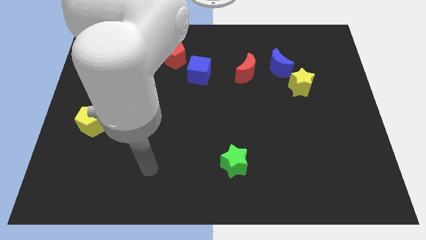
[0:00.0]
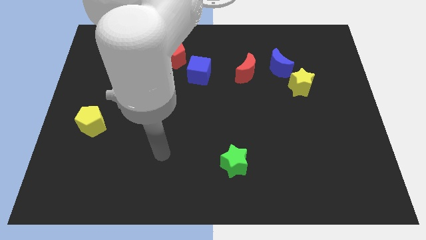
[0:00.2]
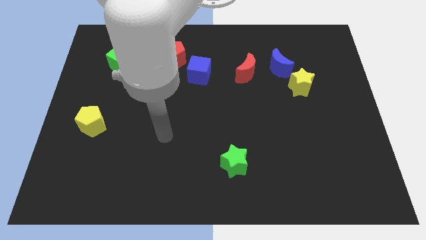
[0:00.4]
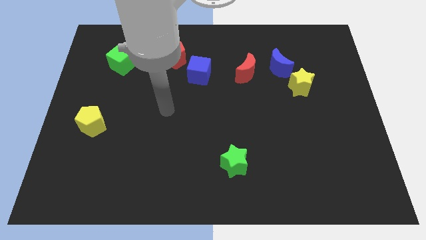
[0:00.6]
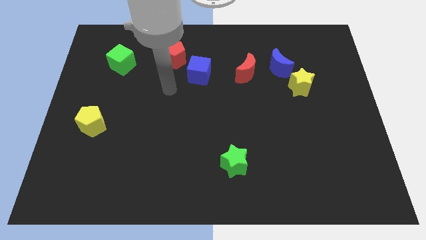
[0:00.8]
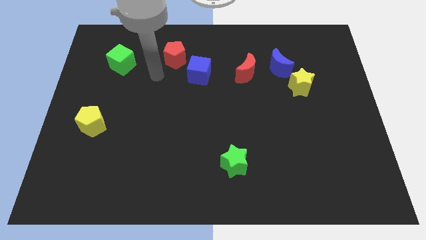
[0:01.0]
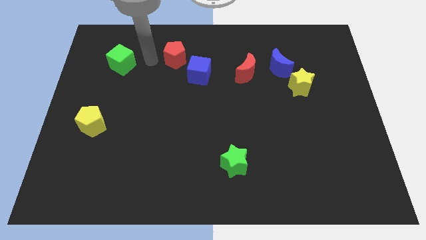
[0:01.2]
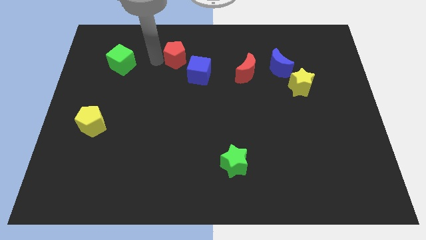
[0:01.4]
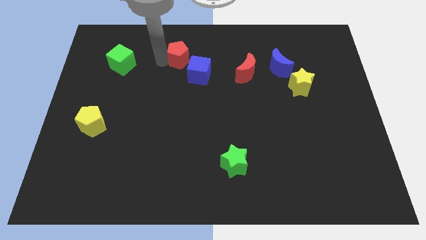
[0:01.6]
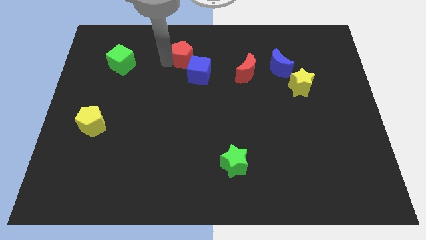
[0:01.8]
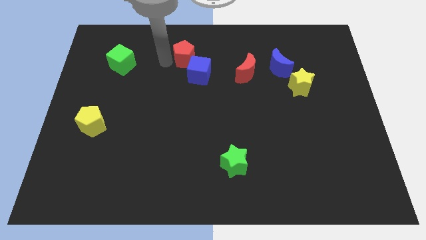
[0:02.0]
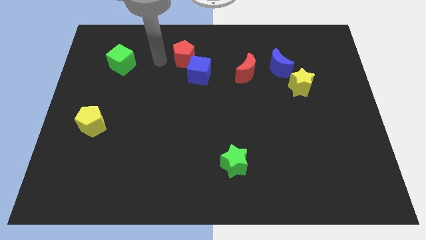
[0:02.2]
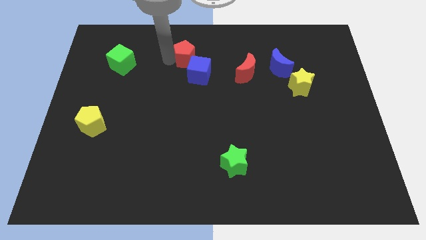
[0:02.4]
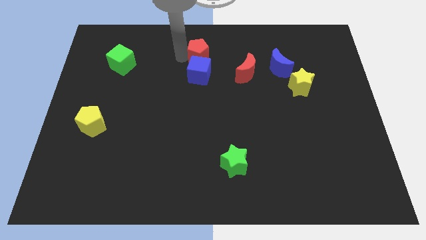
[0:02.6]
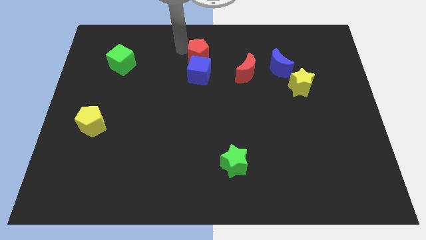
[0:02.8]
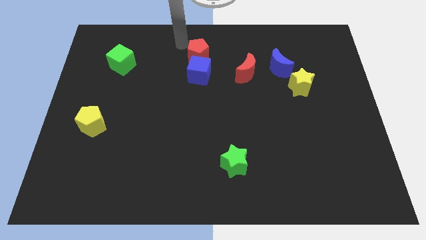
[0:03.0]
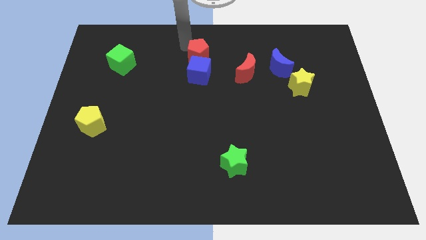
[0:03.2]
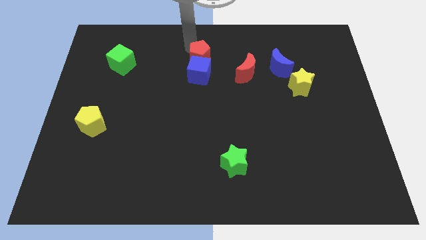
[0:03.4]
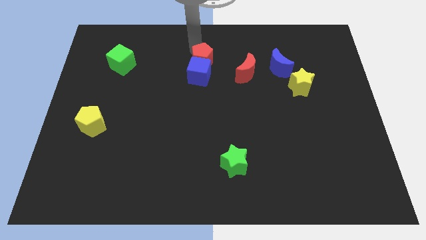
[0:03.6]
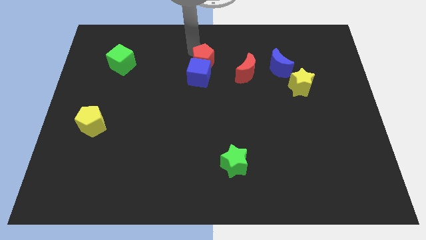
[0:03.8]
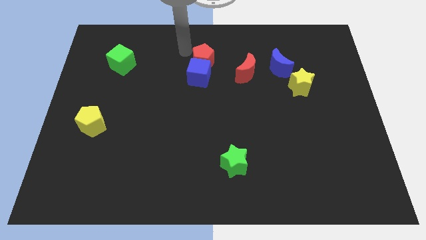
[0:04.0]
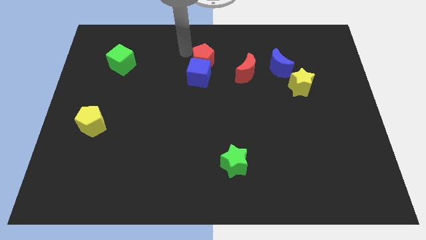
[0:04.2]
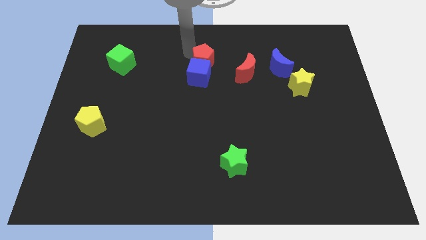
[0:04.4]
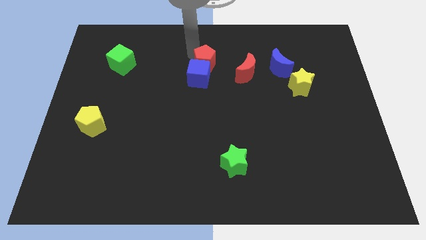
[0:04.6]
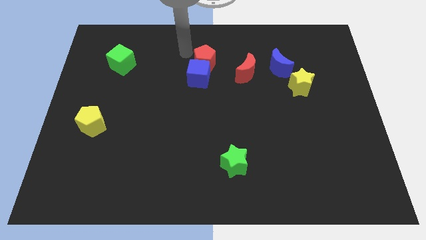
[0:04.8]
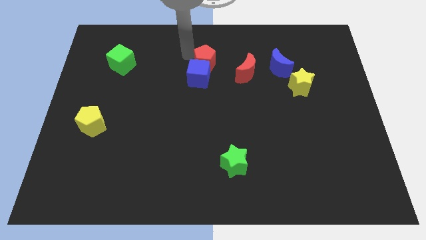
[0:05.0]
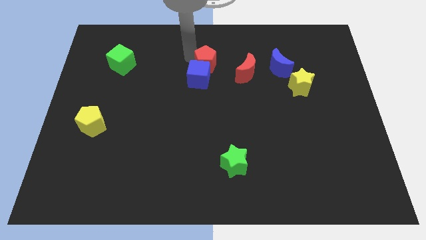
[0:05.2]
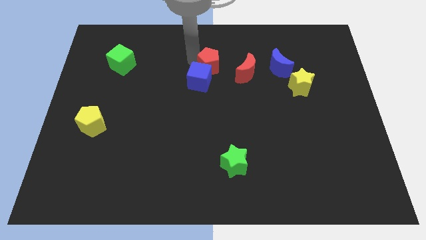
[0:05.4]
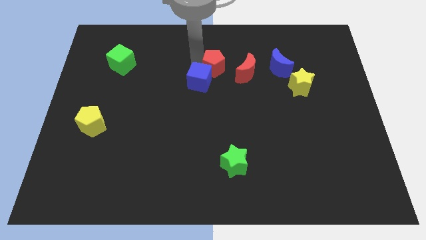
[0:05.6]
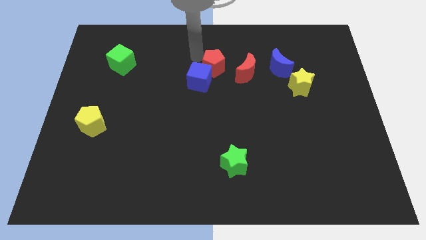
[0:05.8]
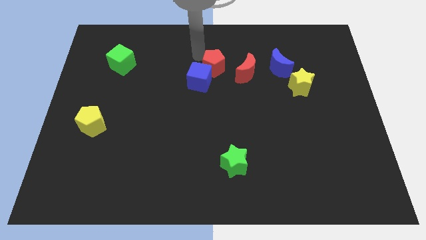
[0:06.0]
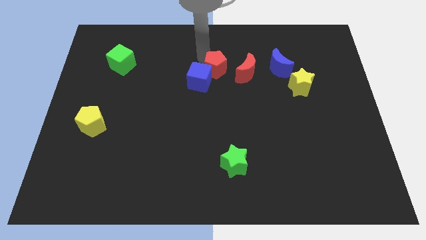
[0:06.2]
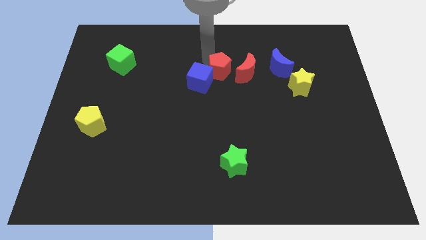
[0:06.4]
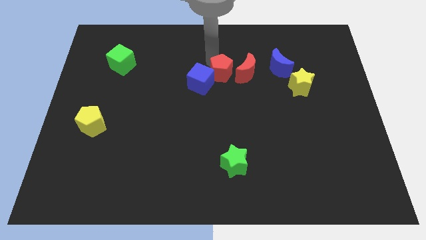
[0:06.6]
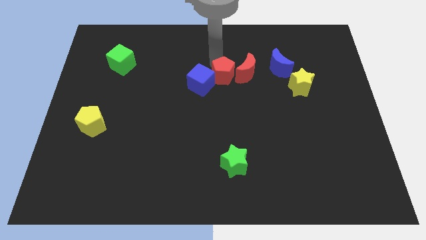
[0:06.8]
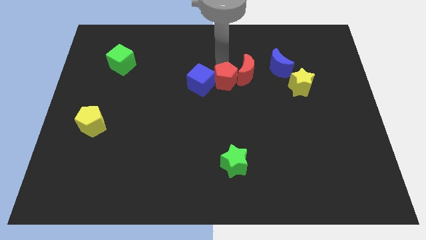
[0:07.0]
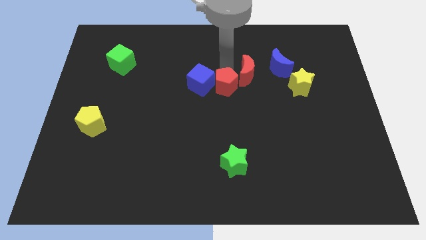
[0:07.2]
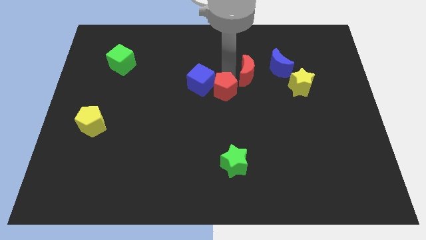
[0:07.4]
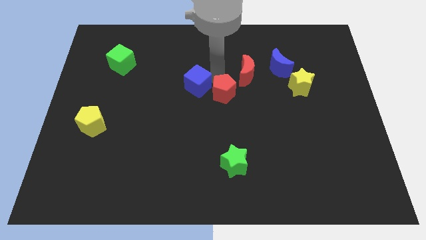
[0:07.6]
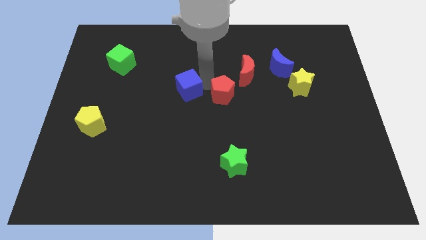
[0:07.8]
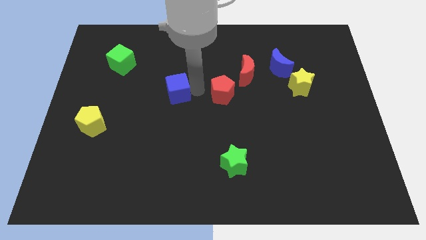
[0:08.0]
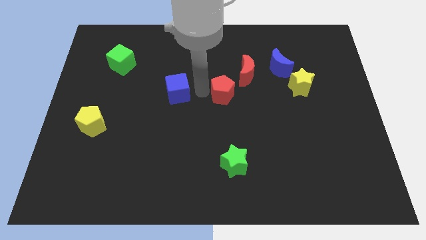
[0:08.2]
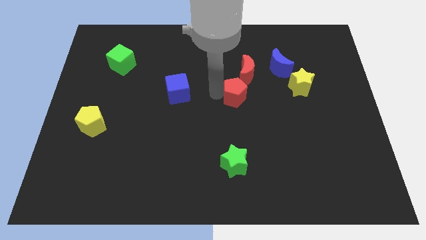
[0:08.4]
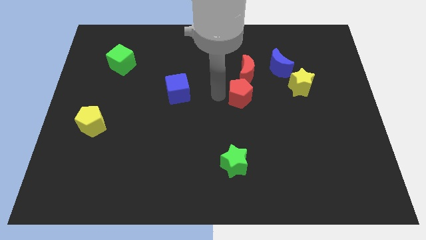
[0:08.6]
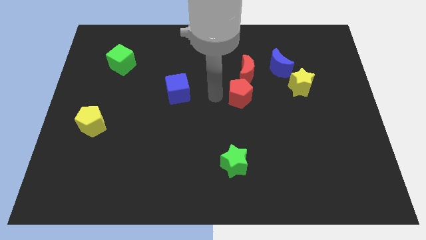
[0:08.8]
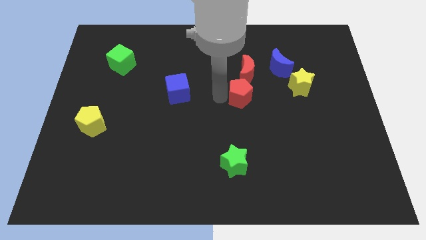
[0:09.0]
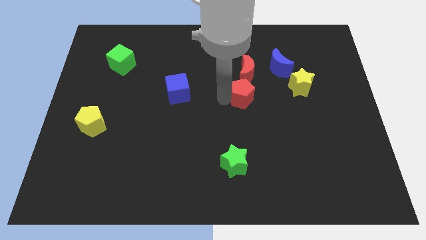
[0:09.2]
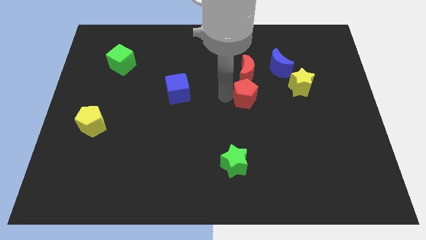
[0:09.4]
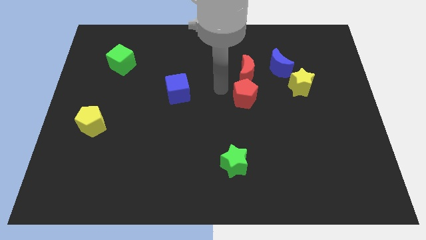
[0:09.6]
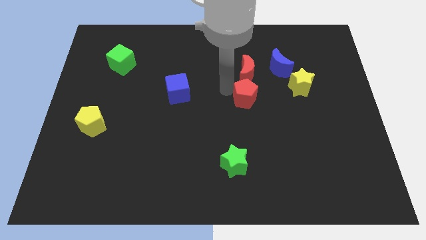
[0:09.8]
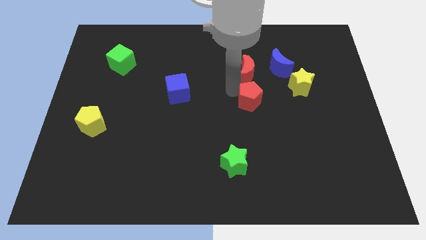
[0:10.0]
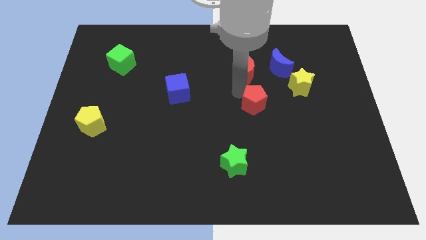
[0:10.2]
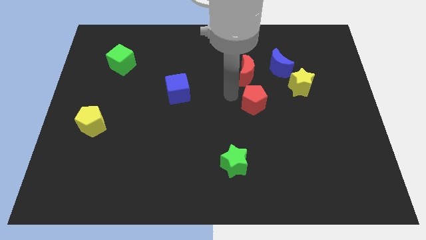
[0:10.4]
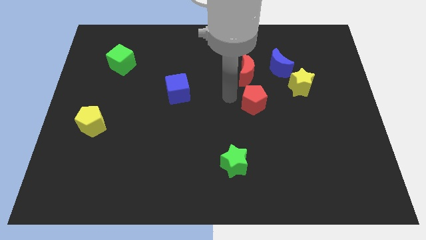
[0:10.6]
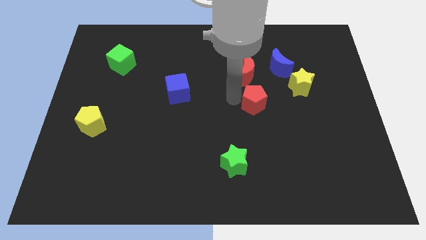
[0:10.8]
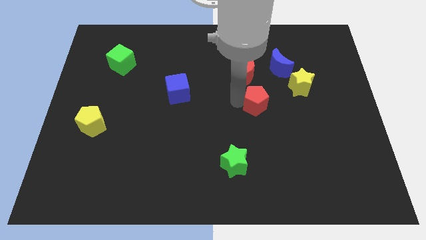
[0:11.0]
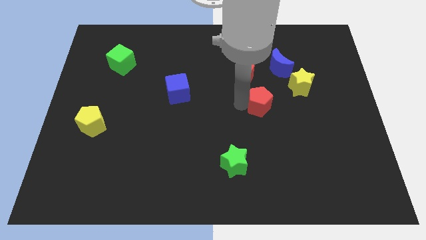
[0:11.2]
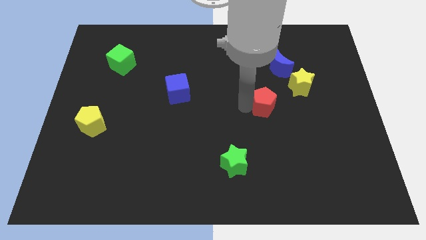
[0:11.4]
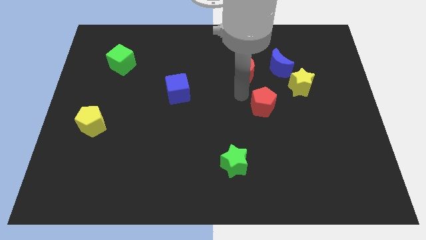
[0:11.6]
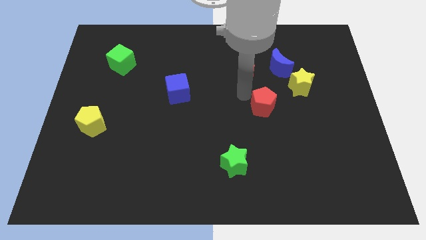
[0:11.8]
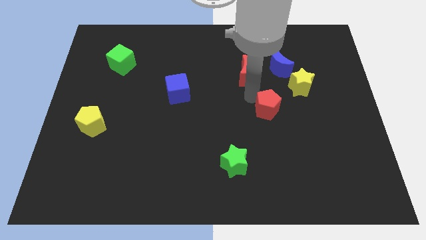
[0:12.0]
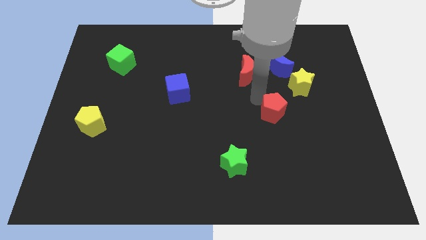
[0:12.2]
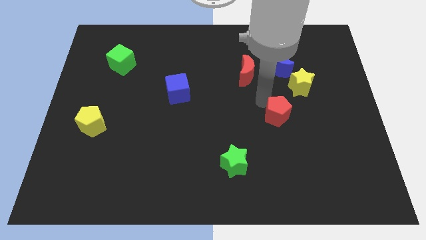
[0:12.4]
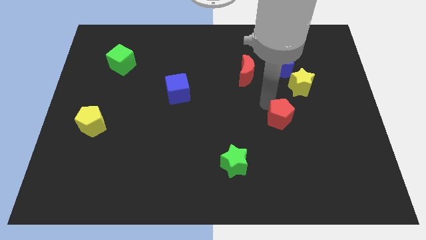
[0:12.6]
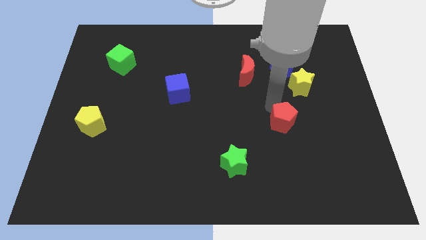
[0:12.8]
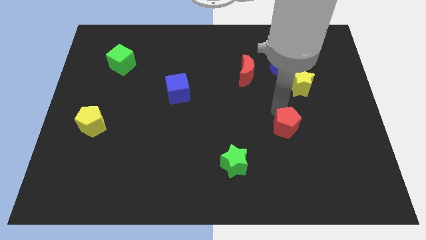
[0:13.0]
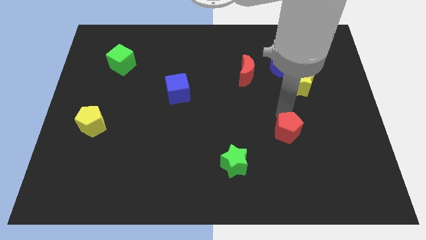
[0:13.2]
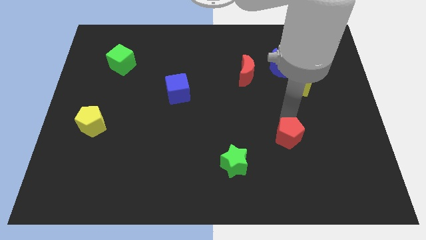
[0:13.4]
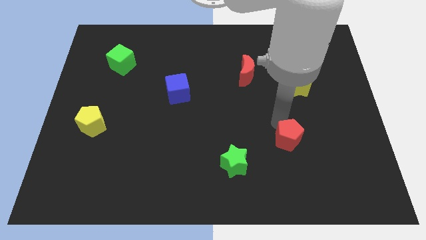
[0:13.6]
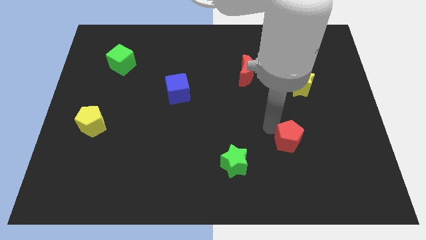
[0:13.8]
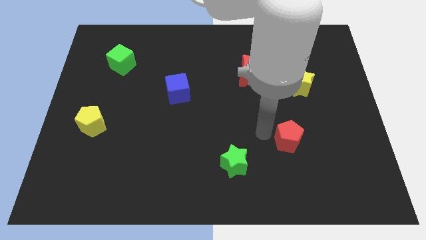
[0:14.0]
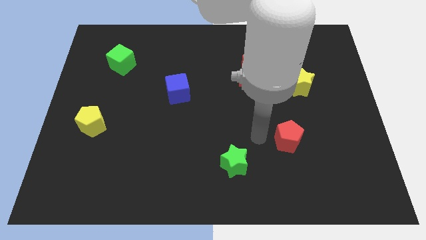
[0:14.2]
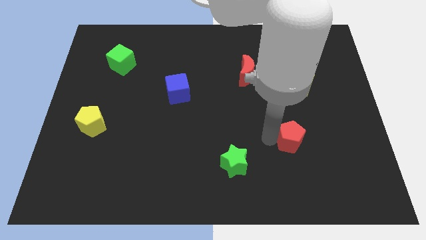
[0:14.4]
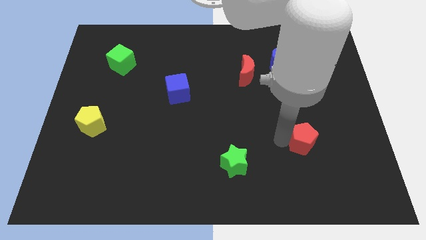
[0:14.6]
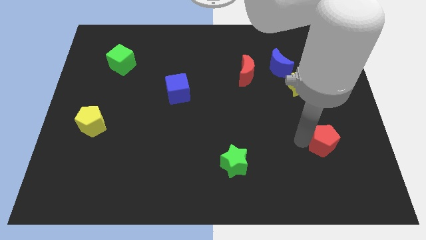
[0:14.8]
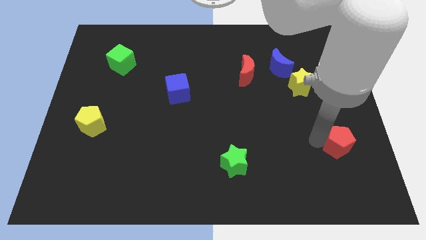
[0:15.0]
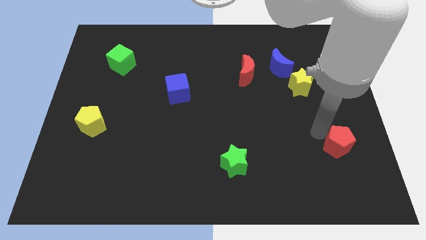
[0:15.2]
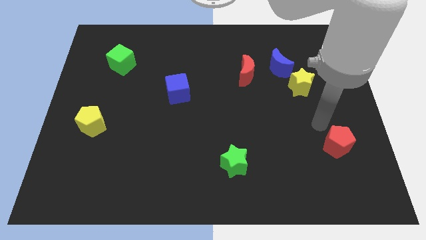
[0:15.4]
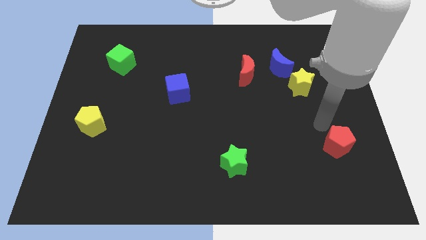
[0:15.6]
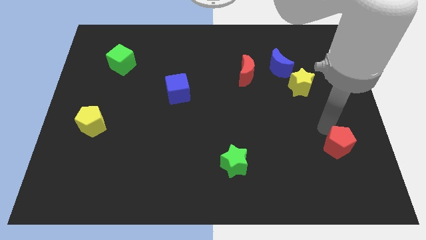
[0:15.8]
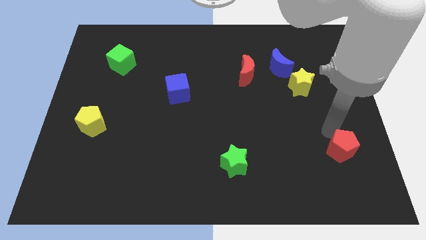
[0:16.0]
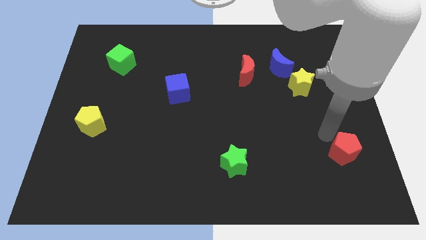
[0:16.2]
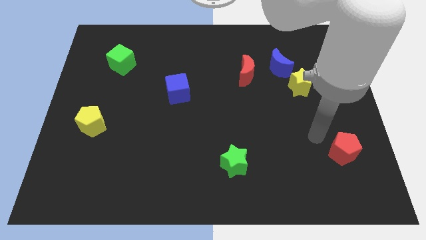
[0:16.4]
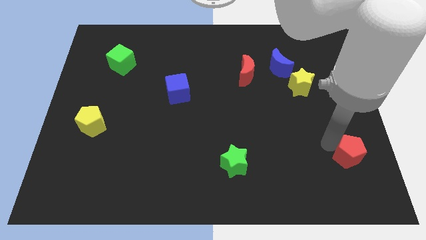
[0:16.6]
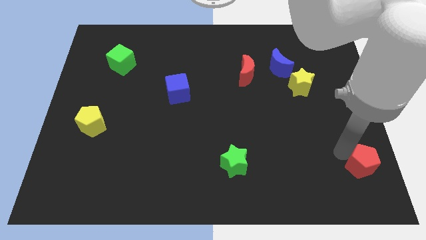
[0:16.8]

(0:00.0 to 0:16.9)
put the red pentagon to the bottom right of the board
